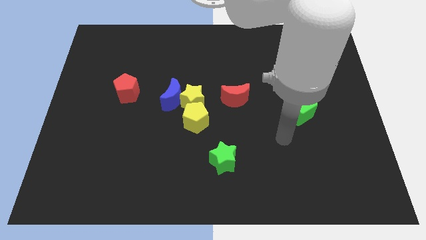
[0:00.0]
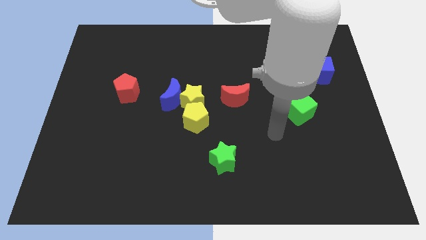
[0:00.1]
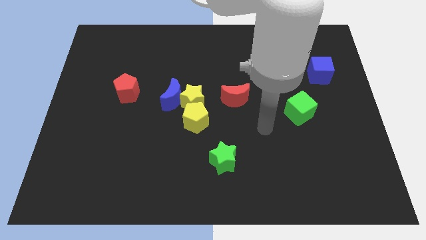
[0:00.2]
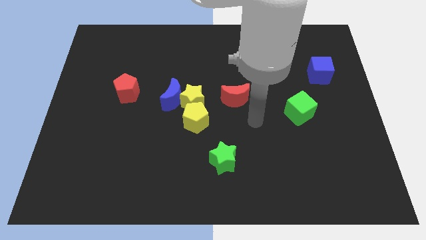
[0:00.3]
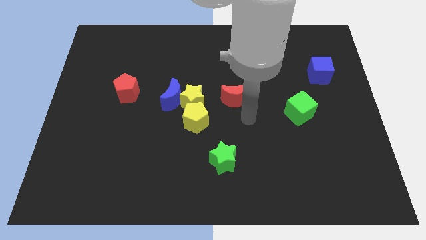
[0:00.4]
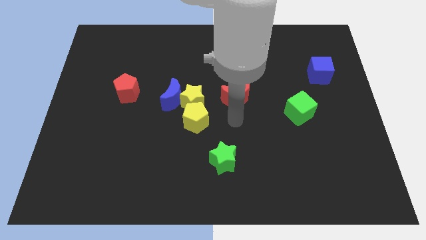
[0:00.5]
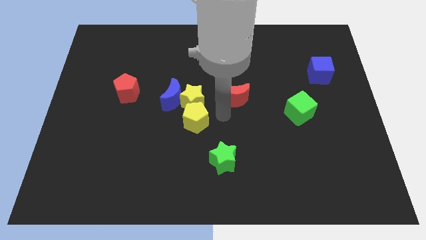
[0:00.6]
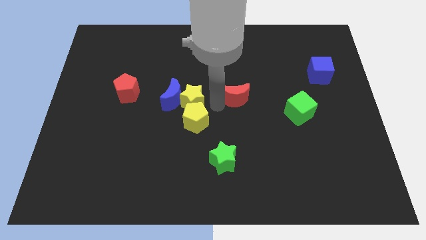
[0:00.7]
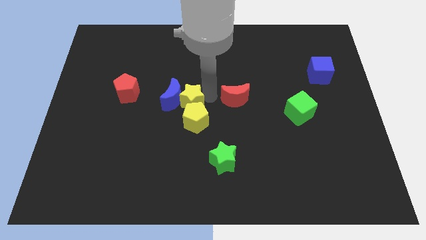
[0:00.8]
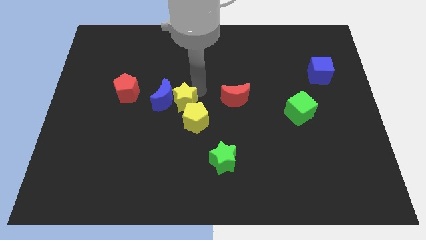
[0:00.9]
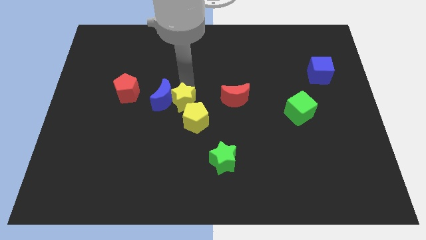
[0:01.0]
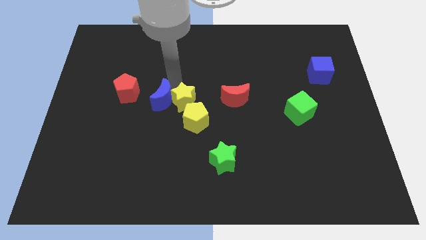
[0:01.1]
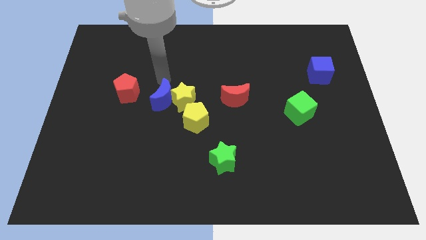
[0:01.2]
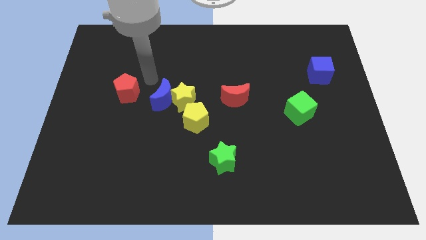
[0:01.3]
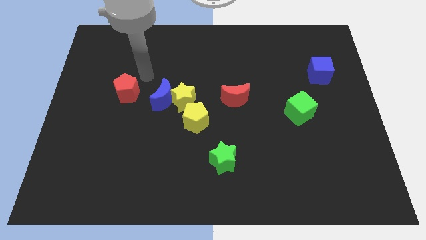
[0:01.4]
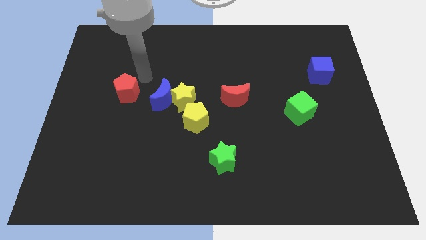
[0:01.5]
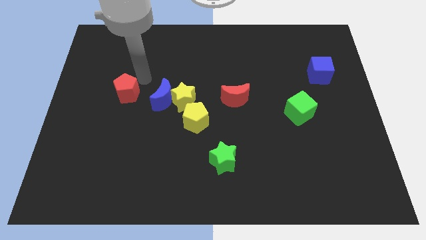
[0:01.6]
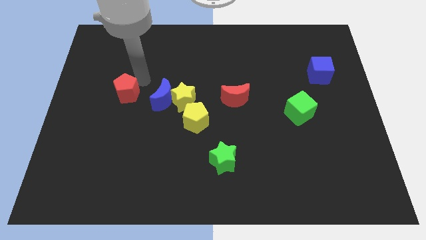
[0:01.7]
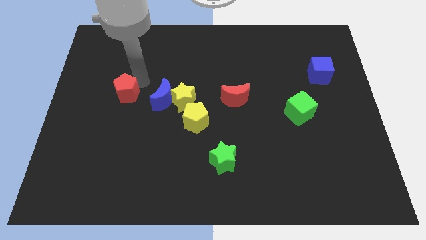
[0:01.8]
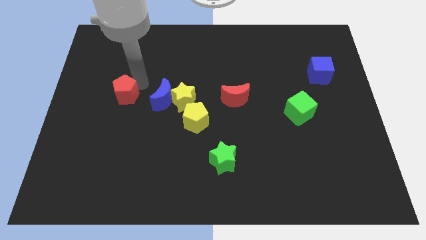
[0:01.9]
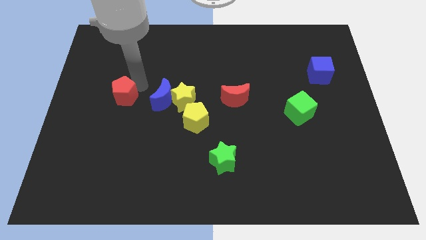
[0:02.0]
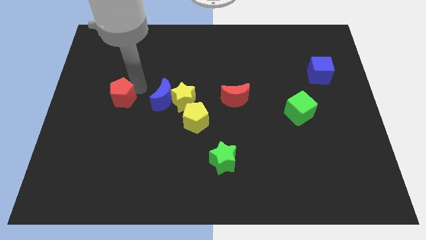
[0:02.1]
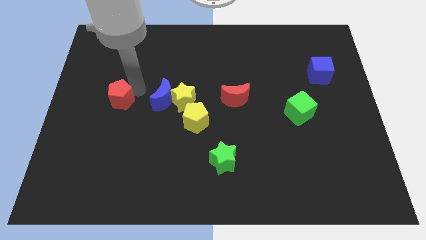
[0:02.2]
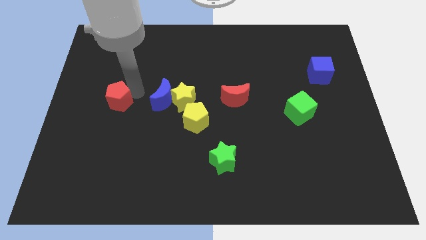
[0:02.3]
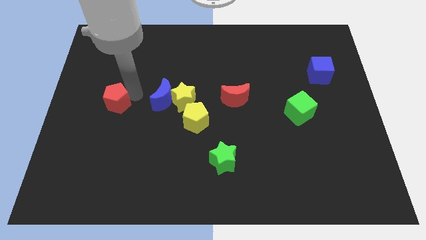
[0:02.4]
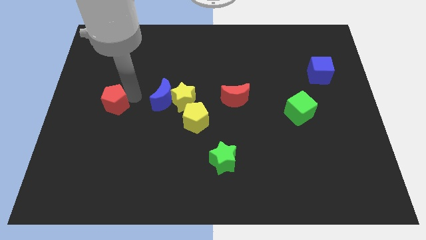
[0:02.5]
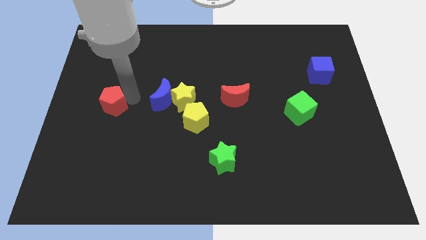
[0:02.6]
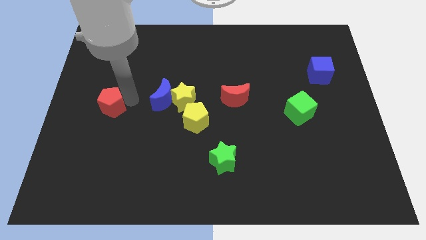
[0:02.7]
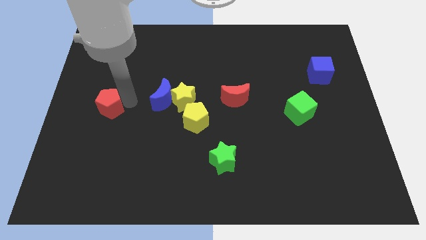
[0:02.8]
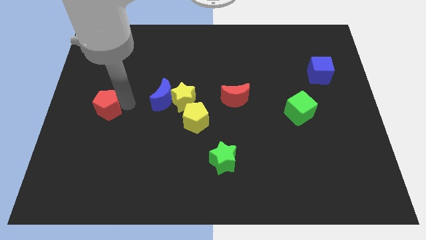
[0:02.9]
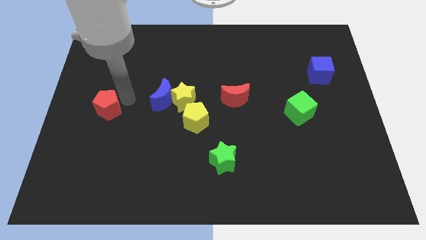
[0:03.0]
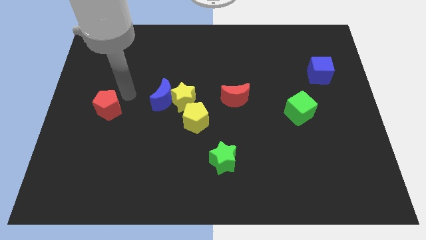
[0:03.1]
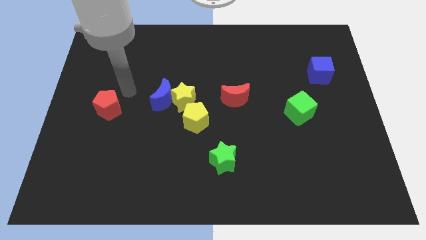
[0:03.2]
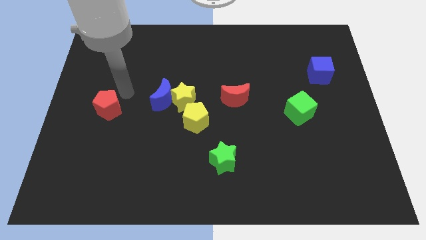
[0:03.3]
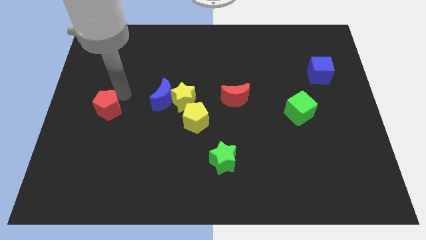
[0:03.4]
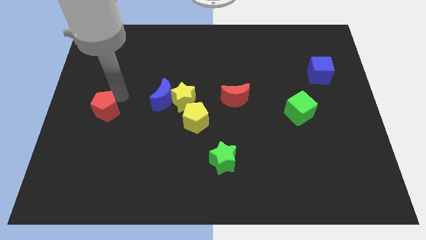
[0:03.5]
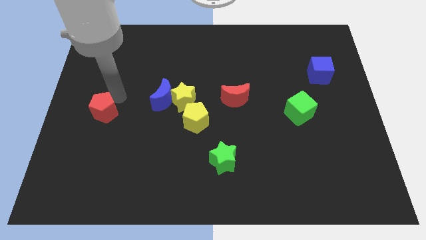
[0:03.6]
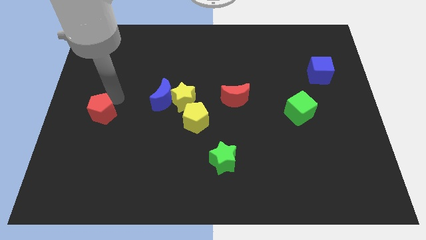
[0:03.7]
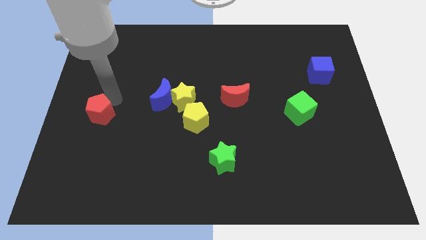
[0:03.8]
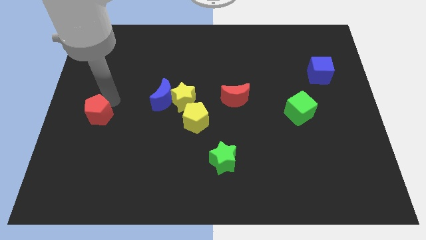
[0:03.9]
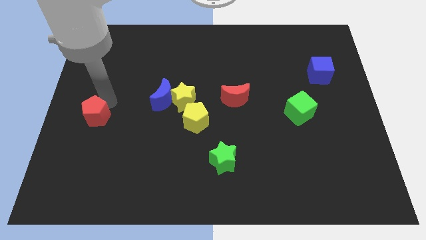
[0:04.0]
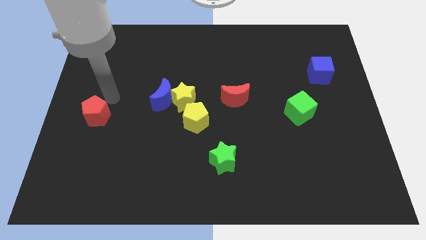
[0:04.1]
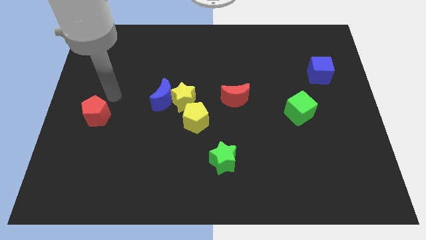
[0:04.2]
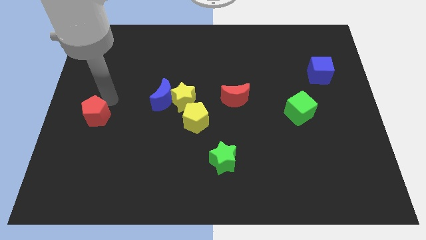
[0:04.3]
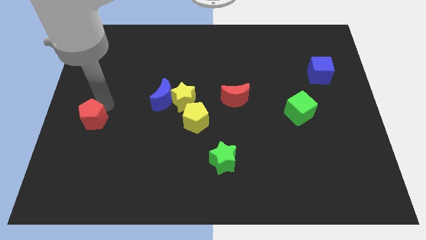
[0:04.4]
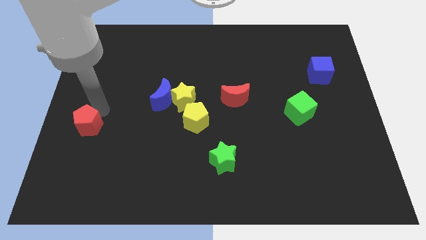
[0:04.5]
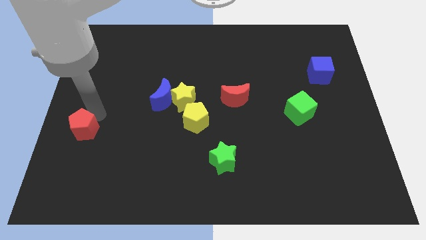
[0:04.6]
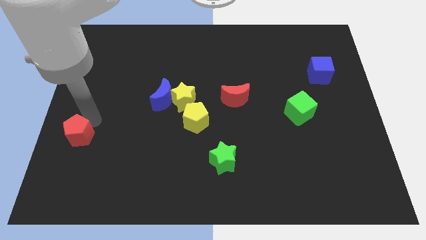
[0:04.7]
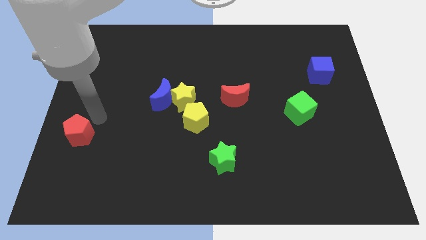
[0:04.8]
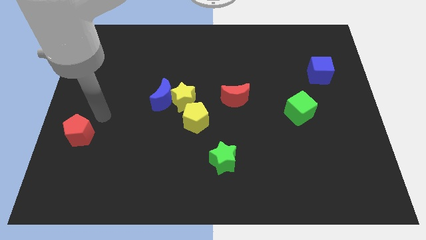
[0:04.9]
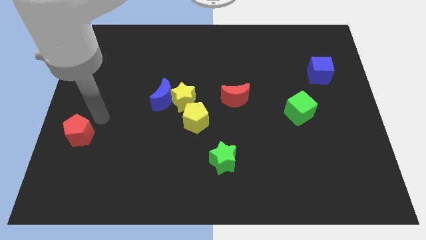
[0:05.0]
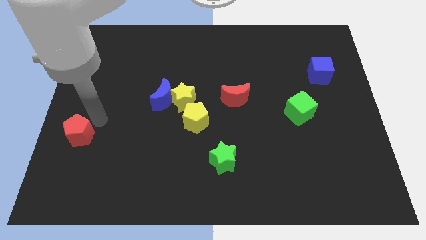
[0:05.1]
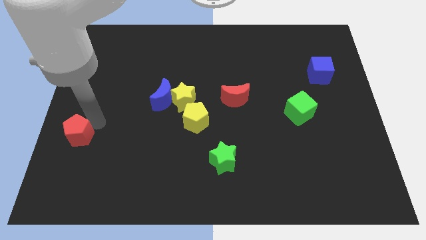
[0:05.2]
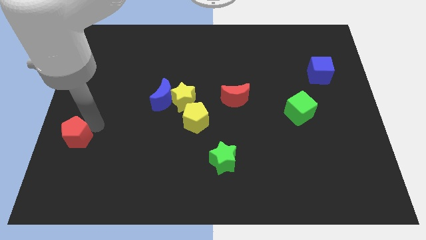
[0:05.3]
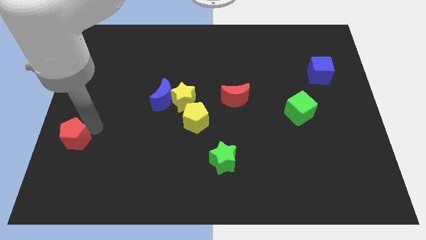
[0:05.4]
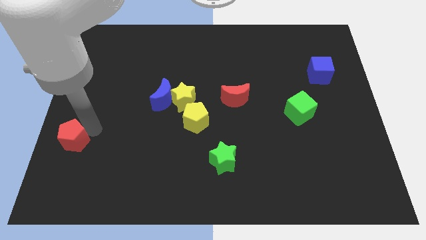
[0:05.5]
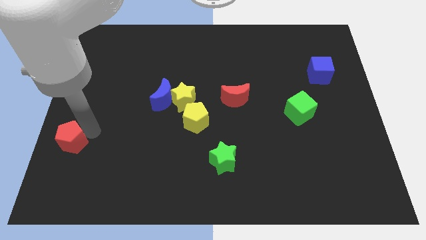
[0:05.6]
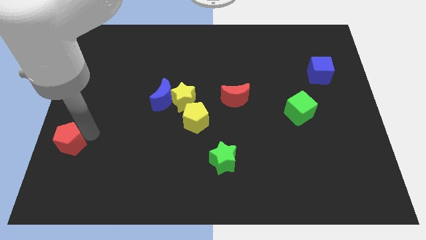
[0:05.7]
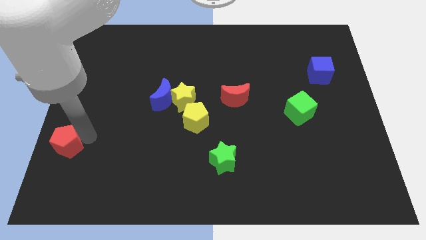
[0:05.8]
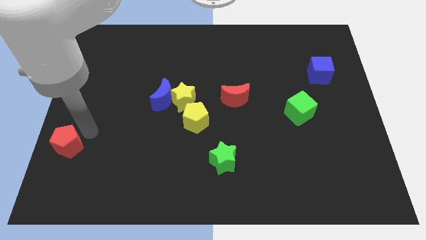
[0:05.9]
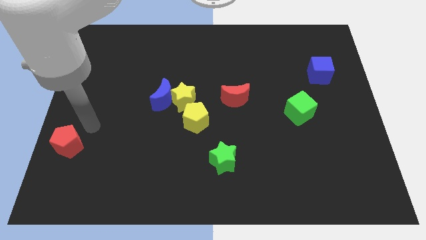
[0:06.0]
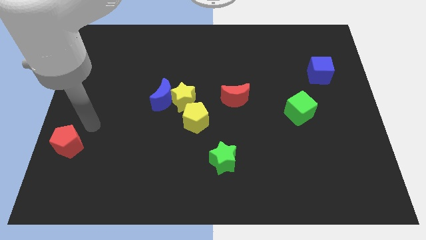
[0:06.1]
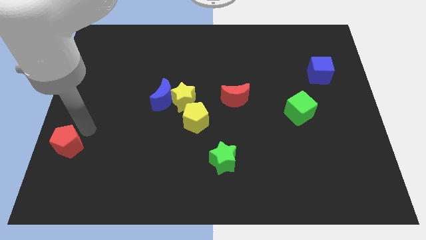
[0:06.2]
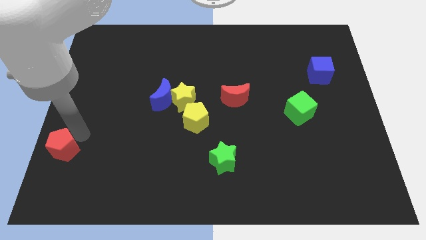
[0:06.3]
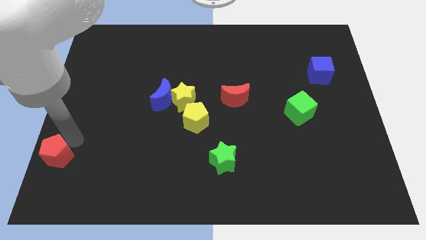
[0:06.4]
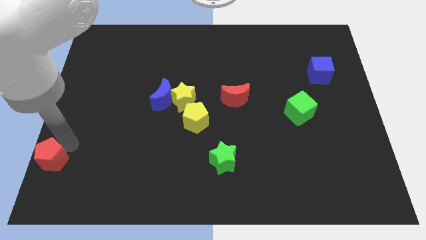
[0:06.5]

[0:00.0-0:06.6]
move the red pentagon to the bottom left

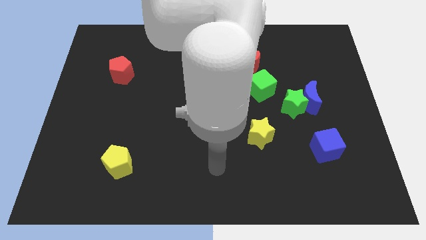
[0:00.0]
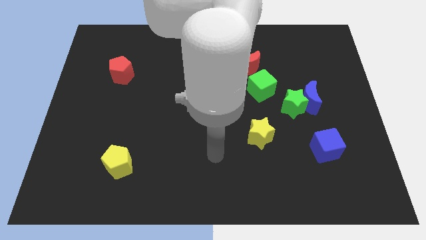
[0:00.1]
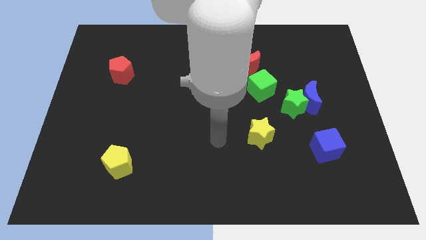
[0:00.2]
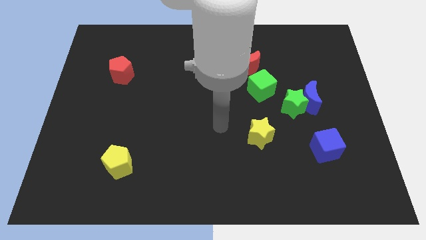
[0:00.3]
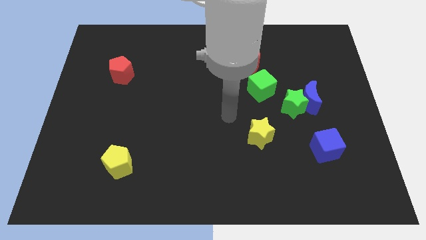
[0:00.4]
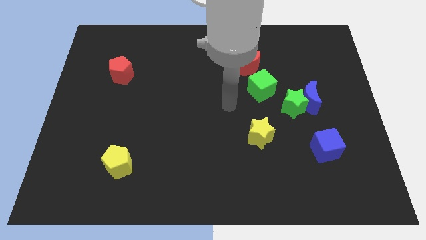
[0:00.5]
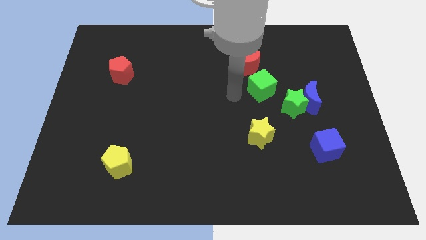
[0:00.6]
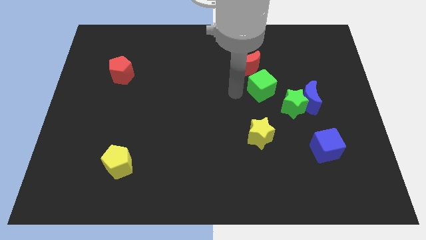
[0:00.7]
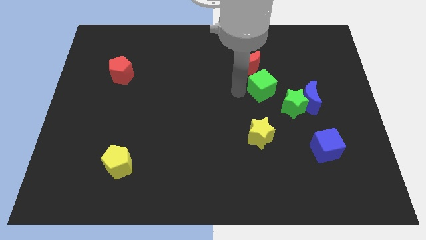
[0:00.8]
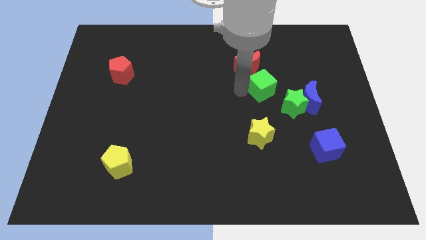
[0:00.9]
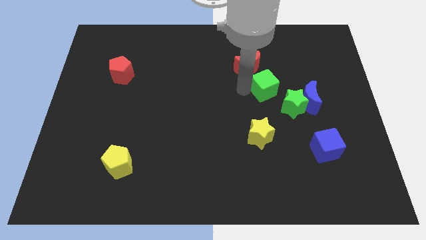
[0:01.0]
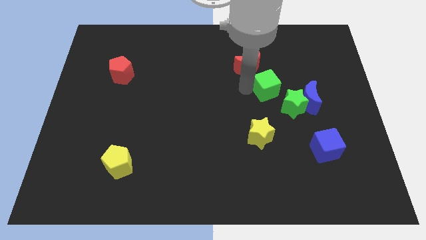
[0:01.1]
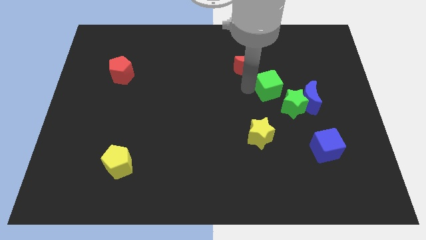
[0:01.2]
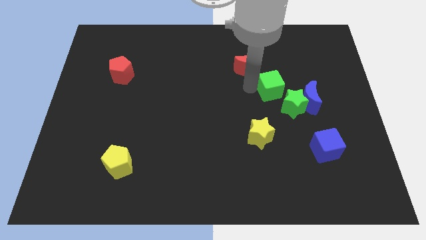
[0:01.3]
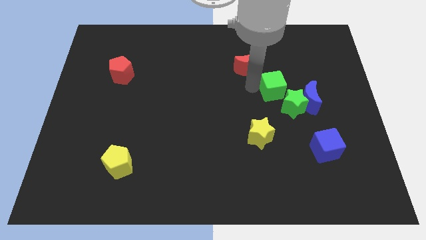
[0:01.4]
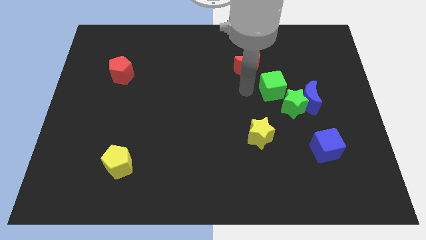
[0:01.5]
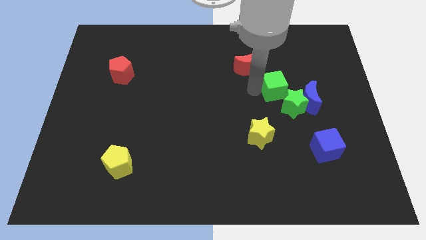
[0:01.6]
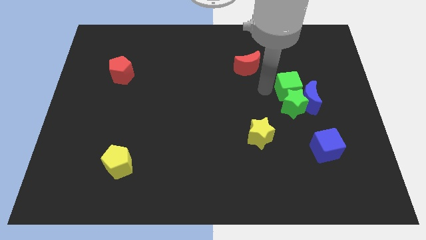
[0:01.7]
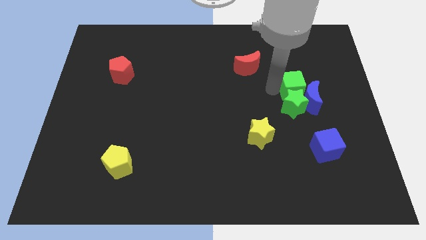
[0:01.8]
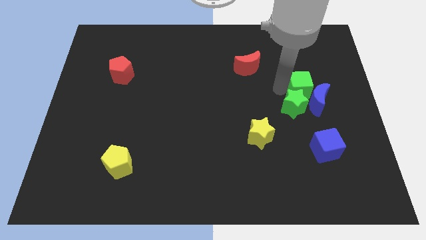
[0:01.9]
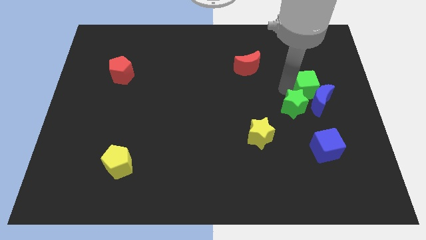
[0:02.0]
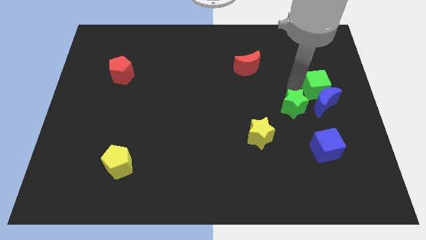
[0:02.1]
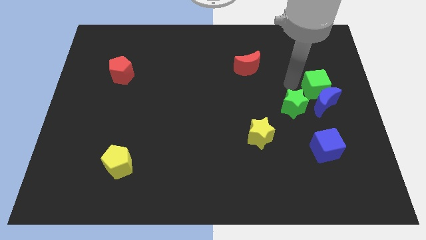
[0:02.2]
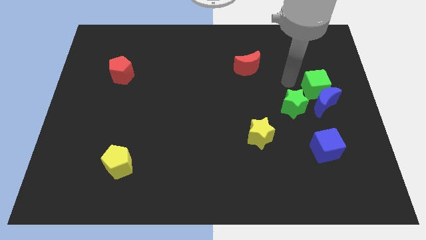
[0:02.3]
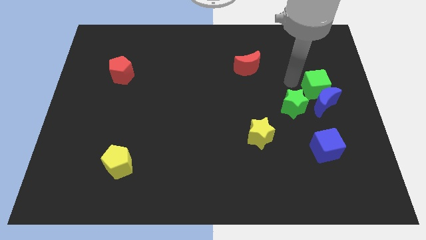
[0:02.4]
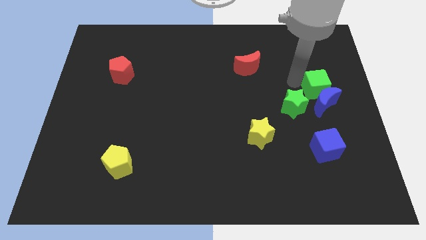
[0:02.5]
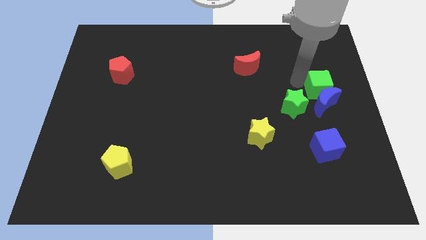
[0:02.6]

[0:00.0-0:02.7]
put the green cube to the right side of the board
